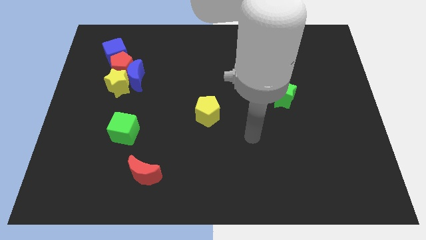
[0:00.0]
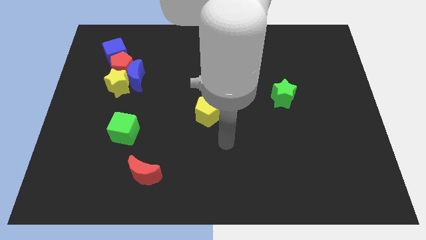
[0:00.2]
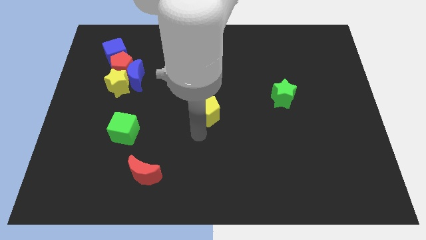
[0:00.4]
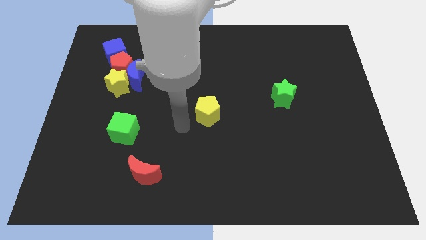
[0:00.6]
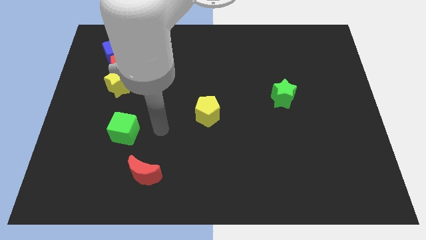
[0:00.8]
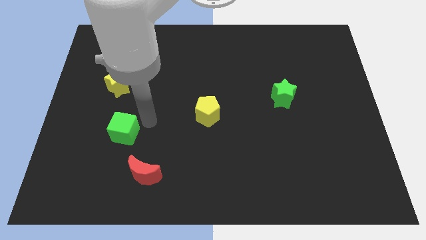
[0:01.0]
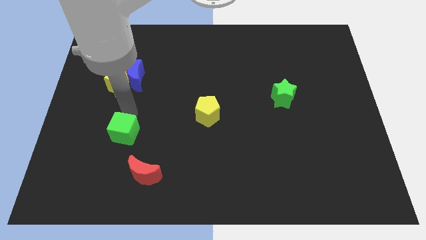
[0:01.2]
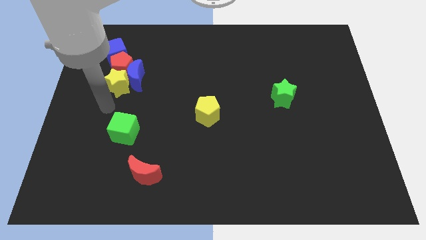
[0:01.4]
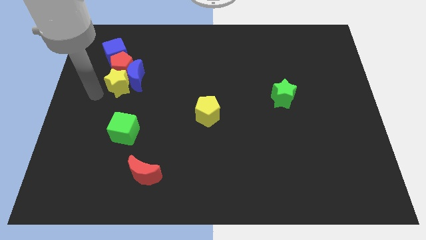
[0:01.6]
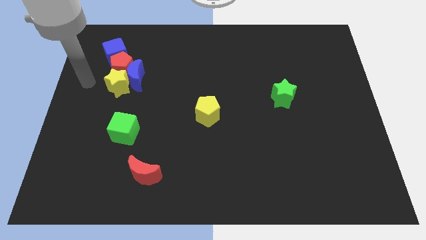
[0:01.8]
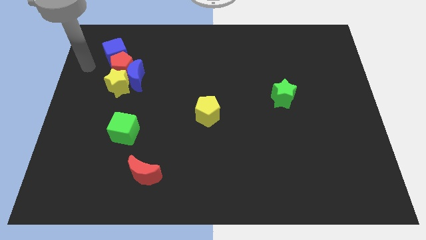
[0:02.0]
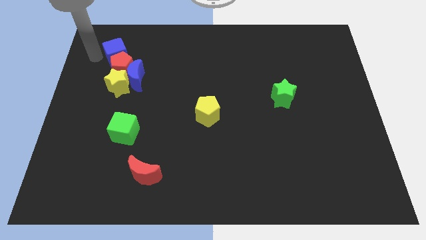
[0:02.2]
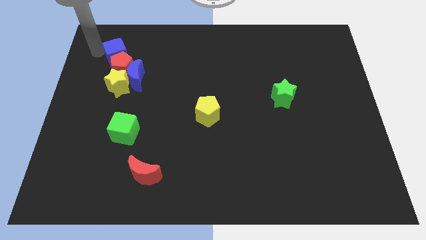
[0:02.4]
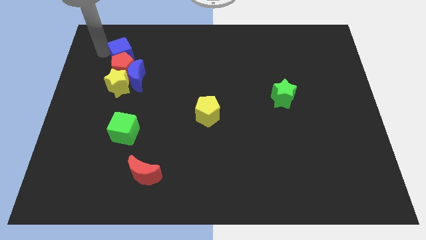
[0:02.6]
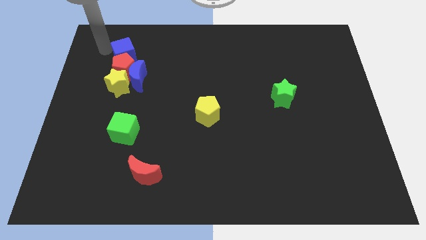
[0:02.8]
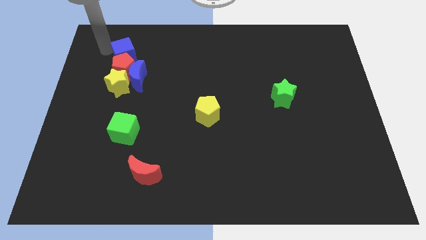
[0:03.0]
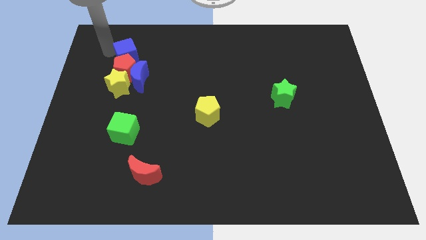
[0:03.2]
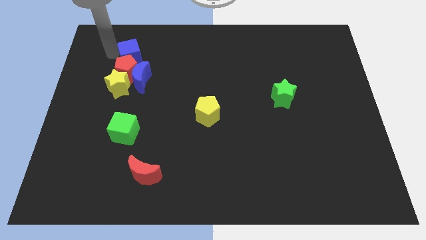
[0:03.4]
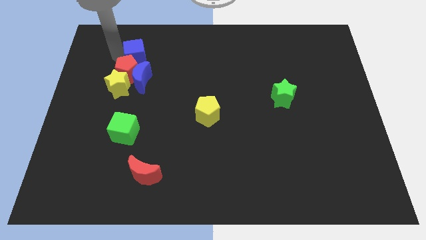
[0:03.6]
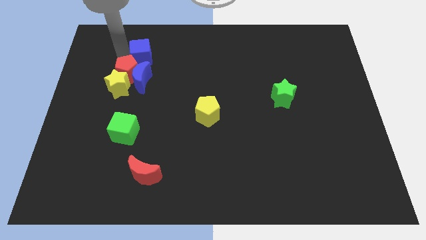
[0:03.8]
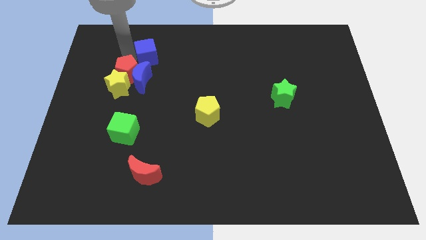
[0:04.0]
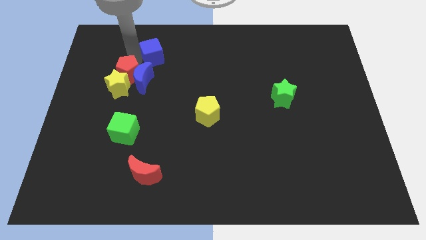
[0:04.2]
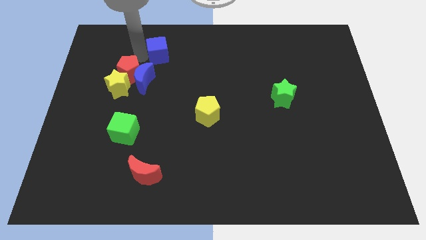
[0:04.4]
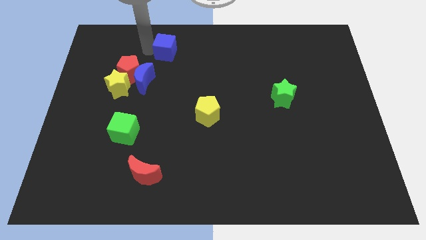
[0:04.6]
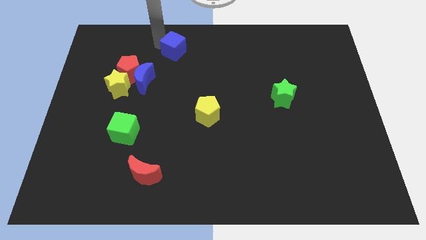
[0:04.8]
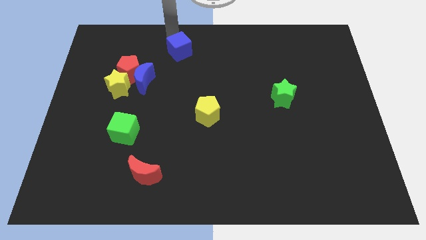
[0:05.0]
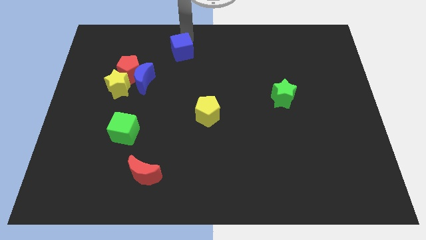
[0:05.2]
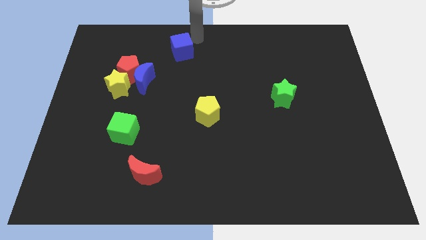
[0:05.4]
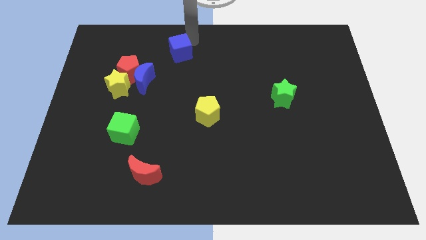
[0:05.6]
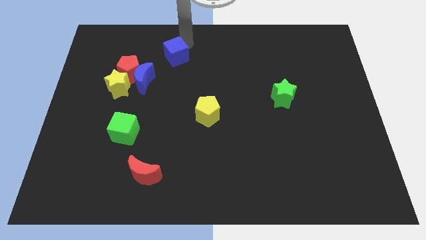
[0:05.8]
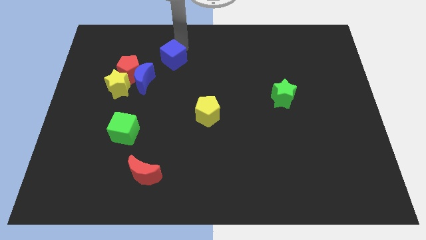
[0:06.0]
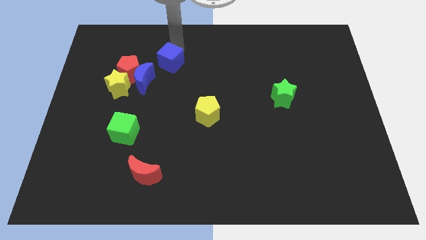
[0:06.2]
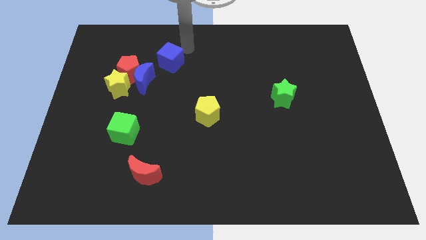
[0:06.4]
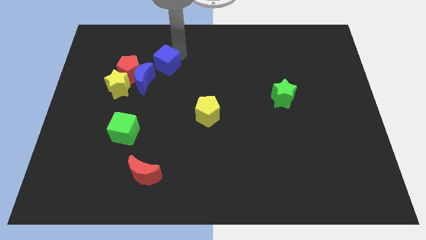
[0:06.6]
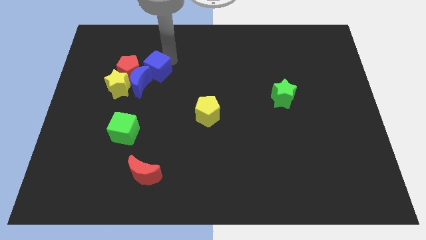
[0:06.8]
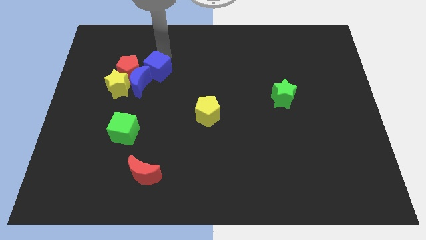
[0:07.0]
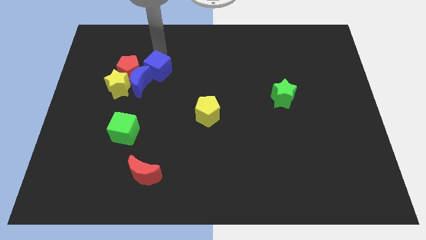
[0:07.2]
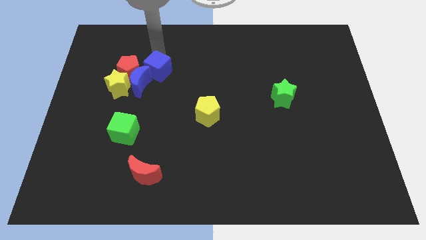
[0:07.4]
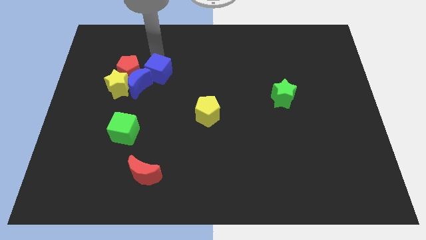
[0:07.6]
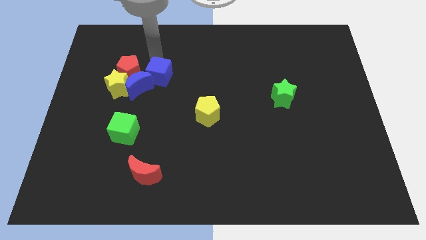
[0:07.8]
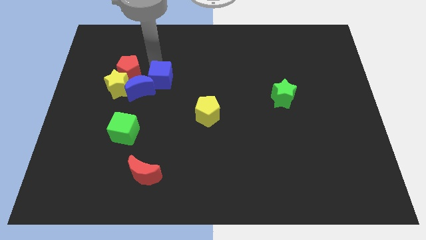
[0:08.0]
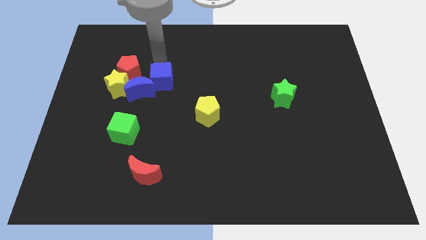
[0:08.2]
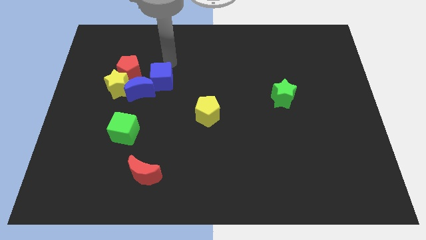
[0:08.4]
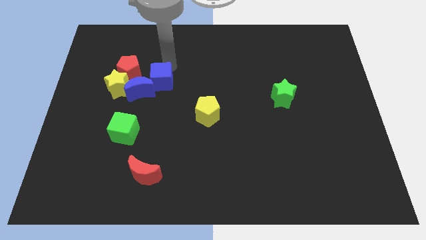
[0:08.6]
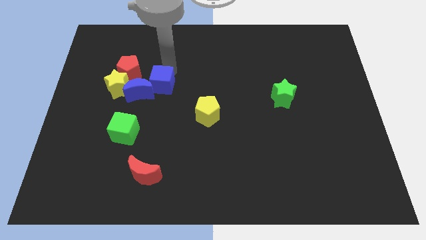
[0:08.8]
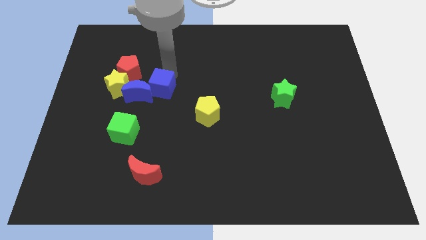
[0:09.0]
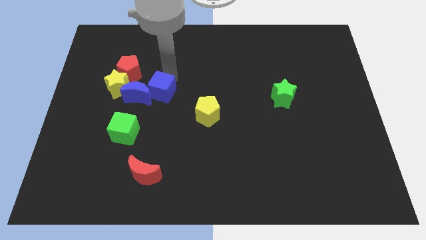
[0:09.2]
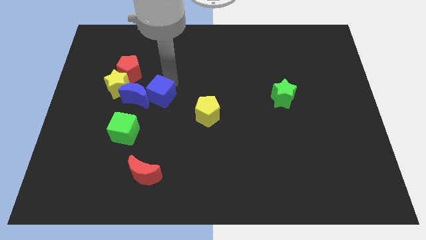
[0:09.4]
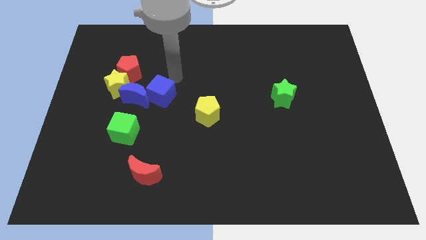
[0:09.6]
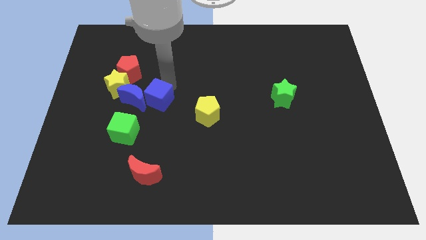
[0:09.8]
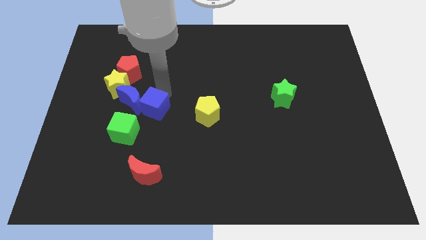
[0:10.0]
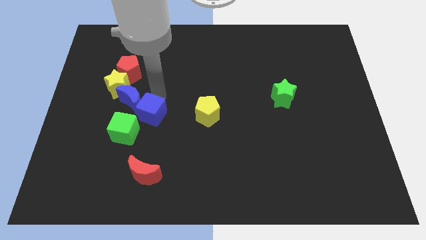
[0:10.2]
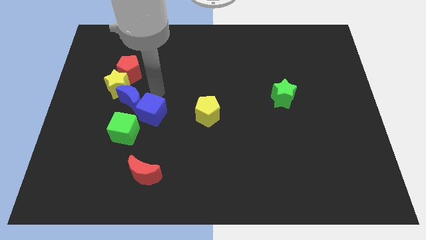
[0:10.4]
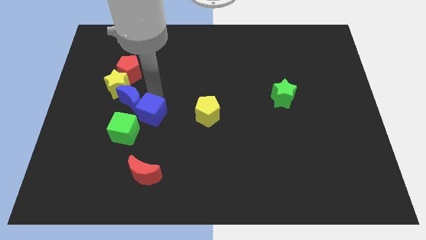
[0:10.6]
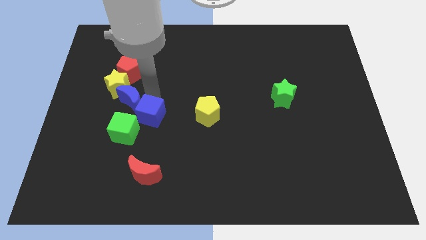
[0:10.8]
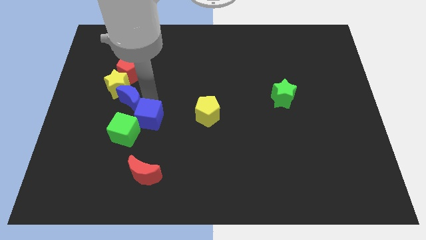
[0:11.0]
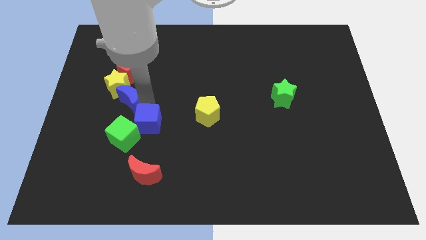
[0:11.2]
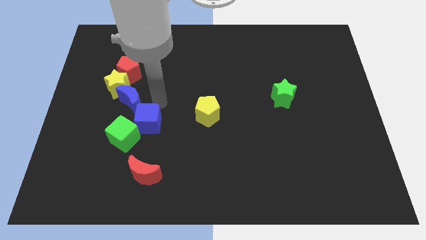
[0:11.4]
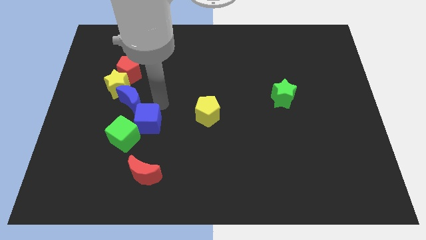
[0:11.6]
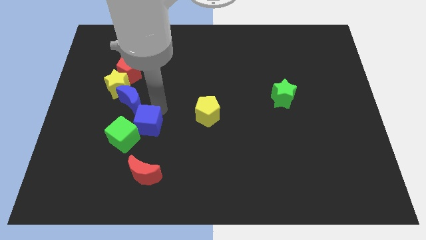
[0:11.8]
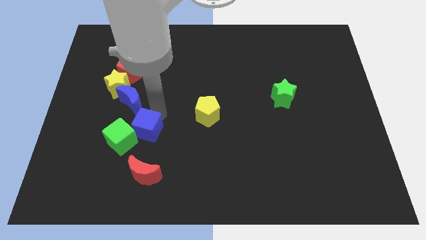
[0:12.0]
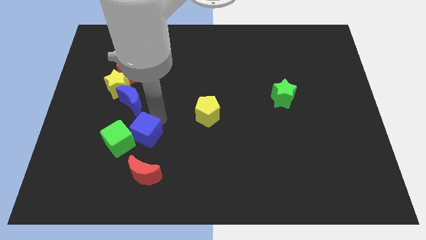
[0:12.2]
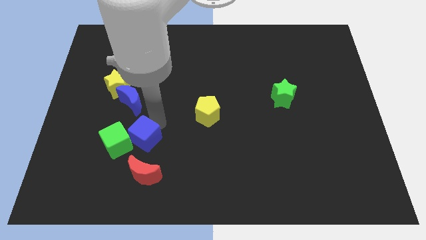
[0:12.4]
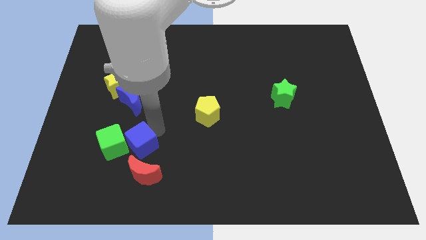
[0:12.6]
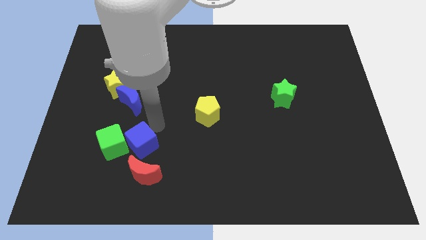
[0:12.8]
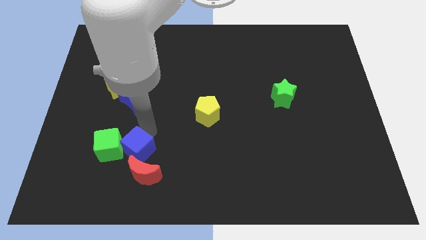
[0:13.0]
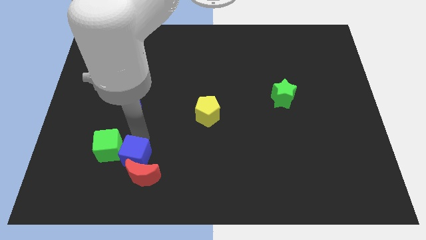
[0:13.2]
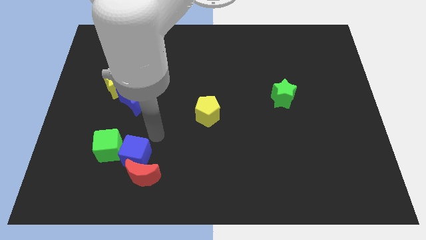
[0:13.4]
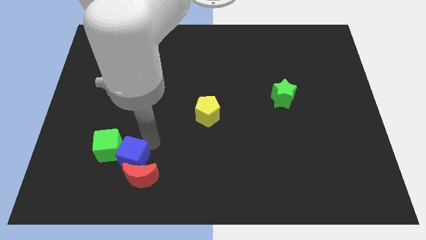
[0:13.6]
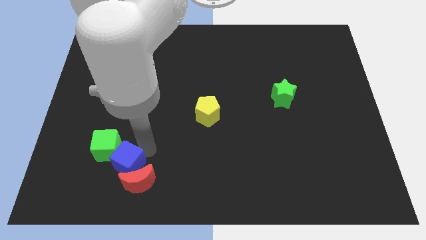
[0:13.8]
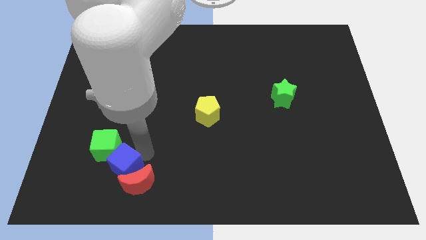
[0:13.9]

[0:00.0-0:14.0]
move the blue cube to the bottom of the green cube

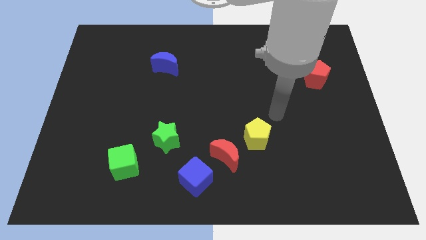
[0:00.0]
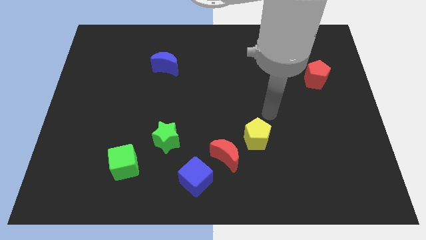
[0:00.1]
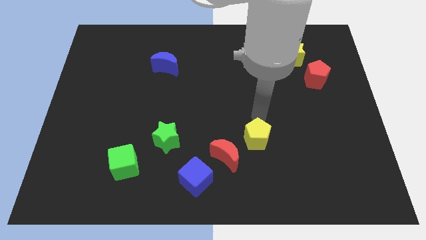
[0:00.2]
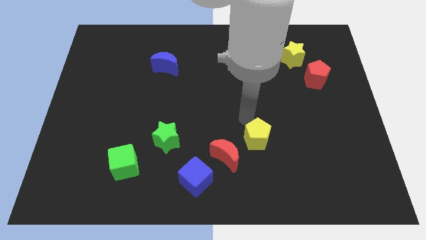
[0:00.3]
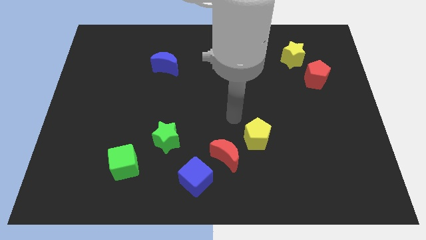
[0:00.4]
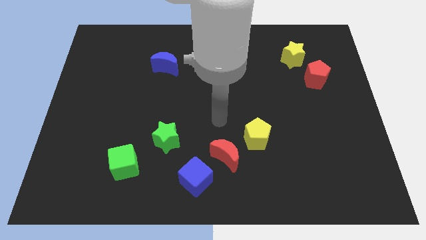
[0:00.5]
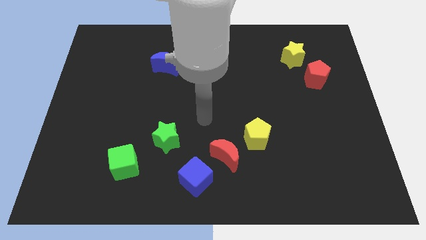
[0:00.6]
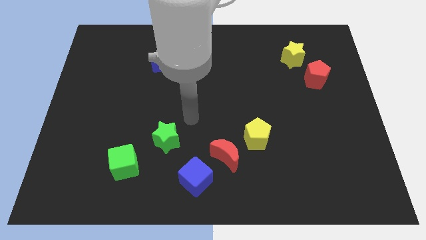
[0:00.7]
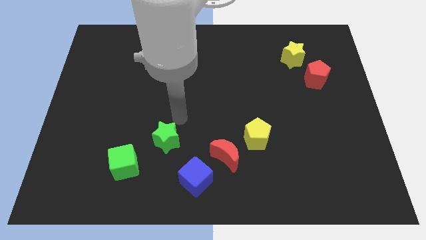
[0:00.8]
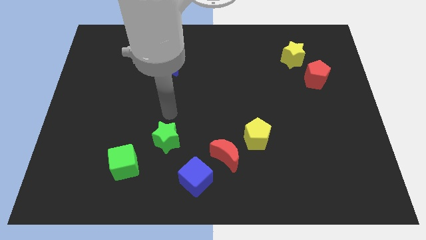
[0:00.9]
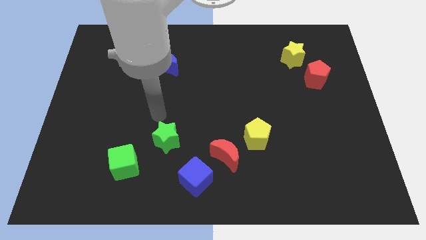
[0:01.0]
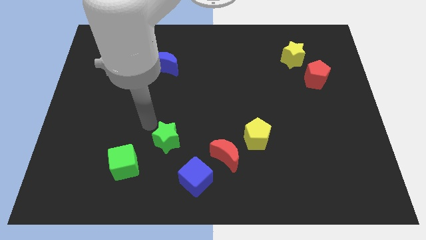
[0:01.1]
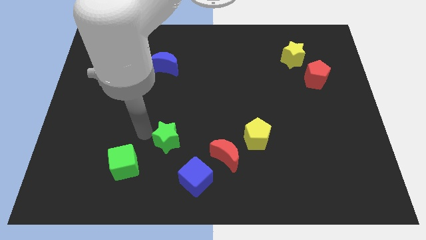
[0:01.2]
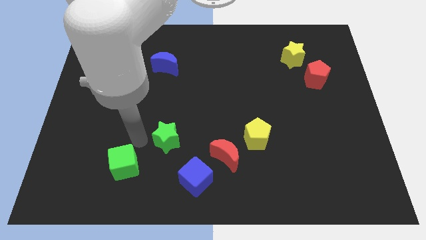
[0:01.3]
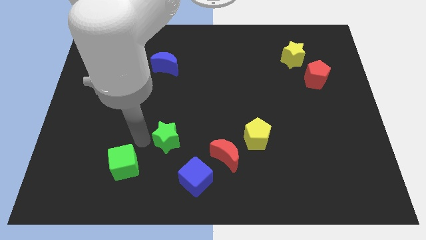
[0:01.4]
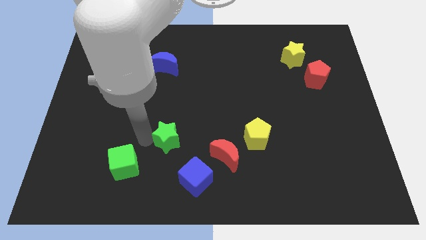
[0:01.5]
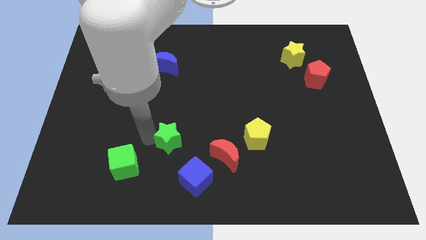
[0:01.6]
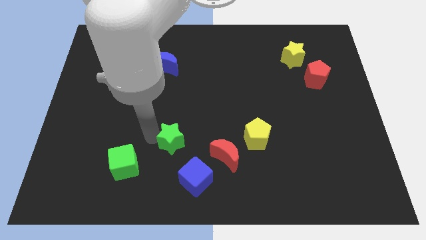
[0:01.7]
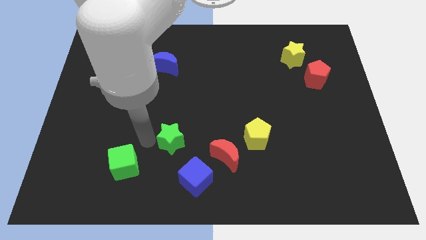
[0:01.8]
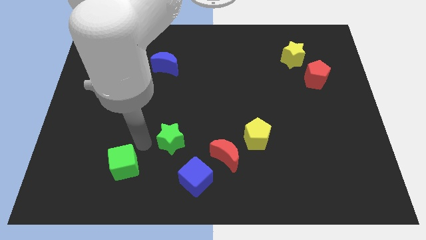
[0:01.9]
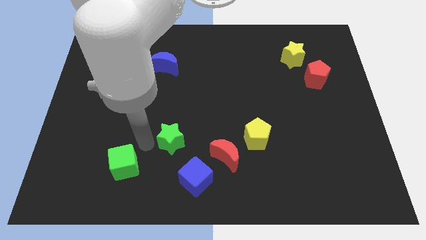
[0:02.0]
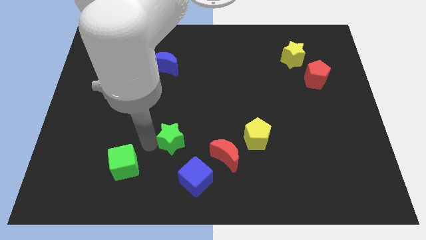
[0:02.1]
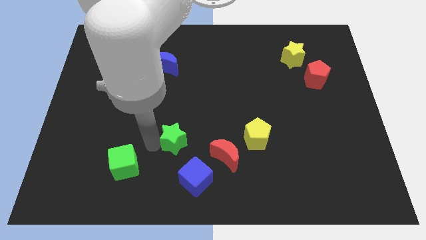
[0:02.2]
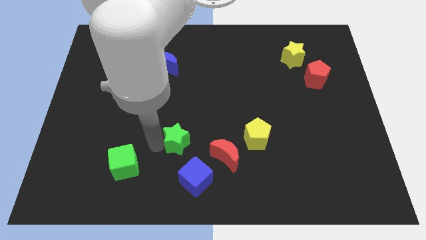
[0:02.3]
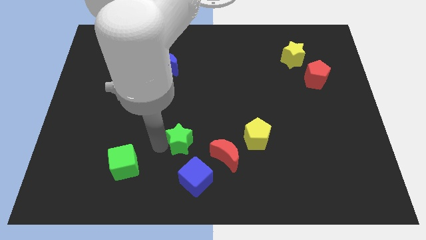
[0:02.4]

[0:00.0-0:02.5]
move the green star to the top left of the red moon
